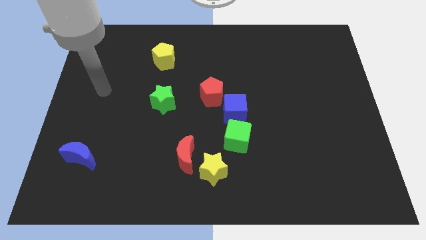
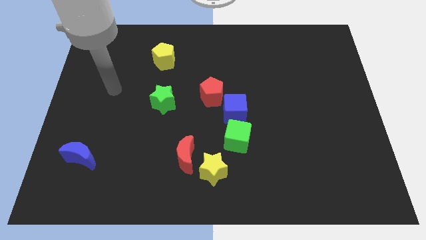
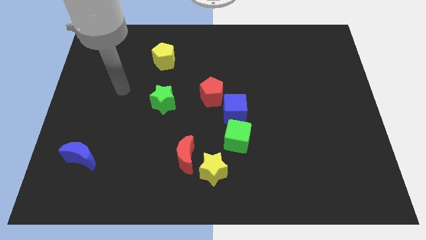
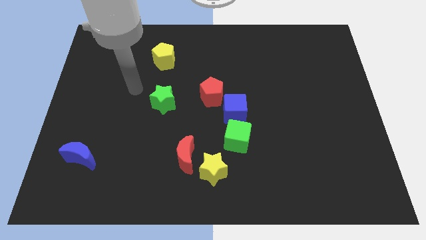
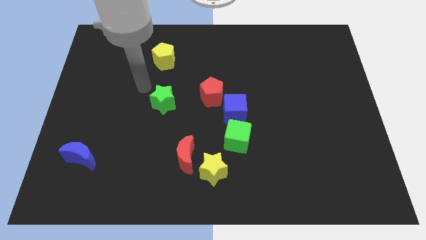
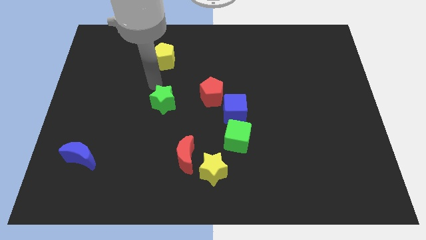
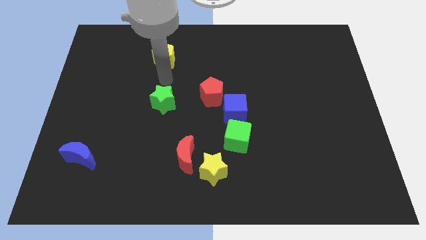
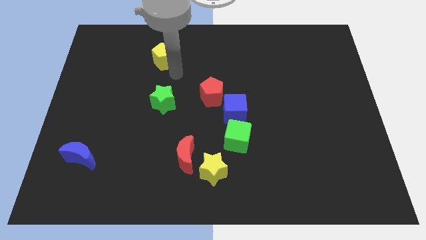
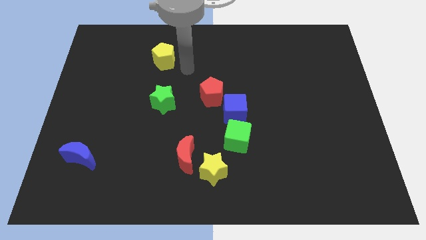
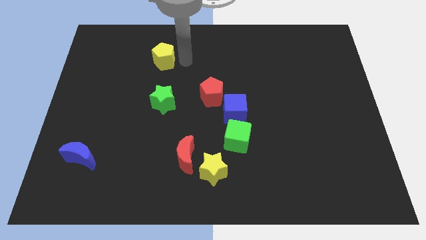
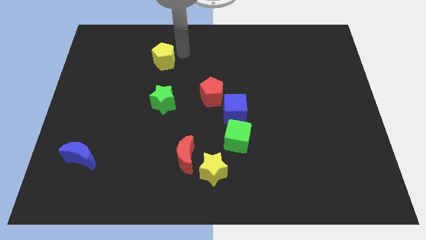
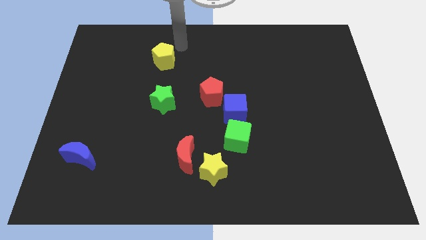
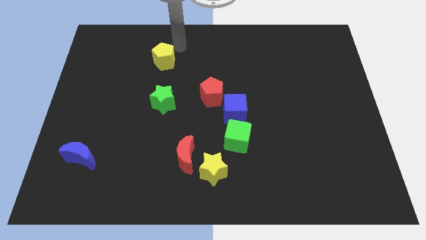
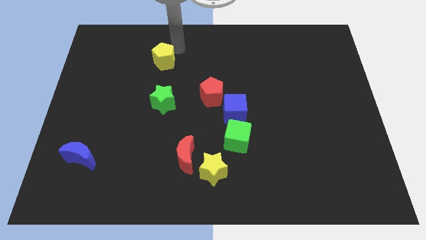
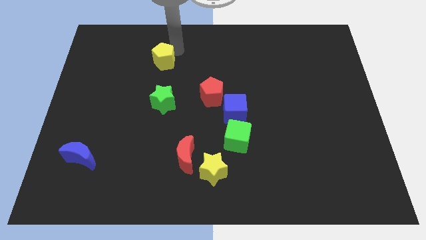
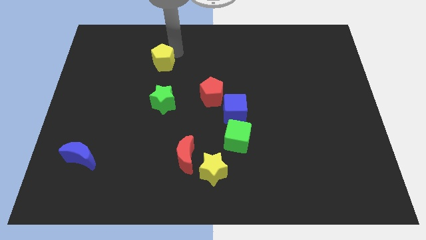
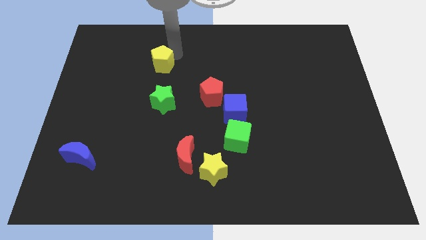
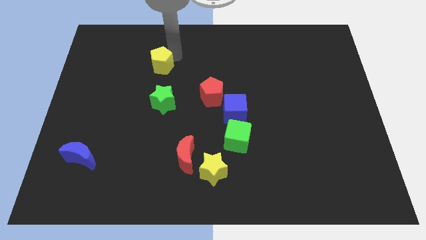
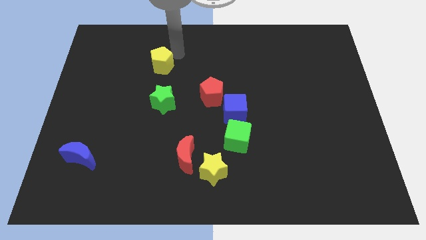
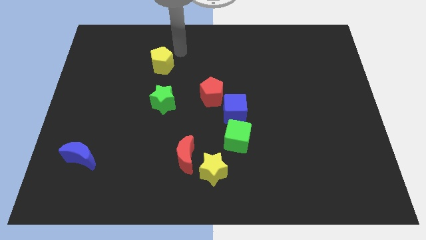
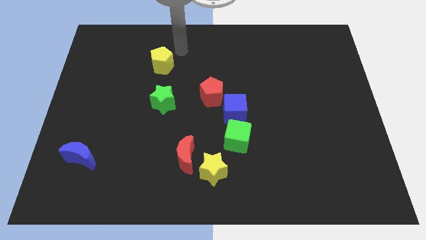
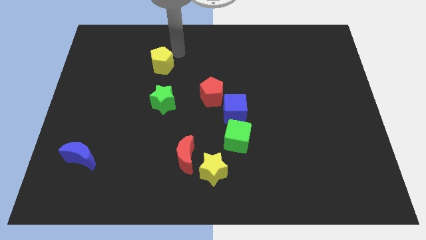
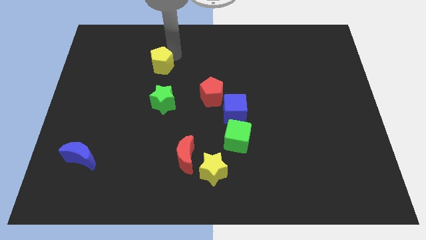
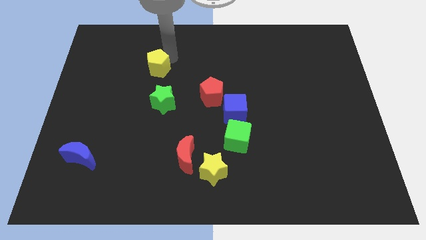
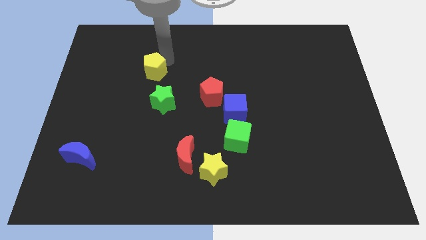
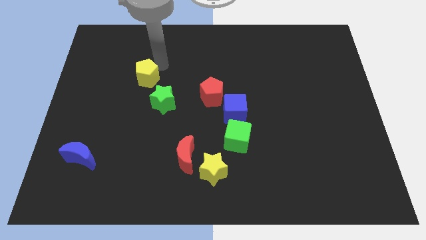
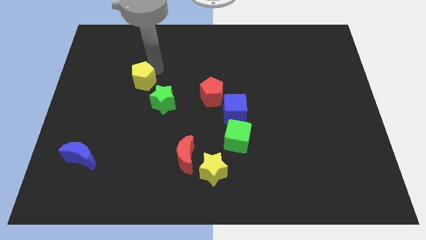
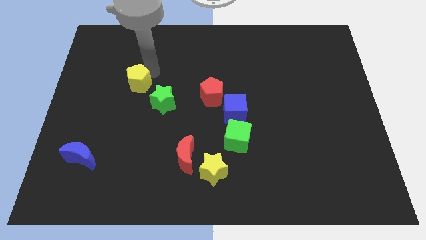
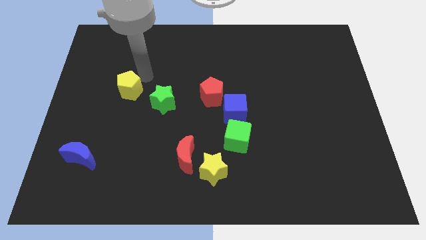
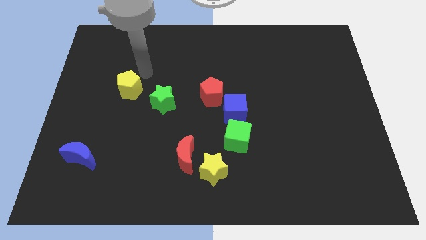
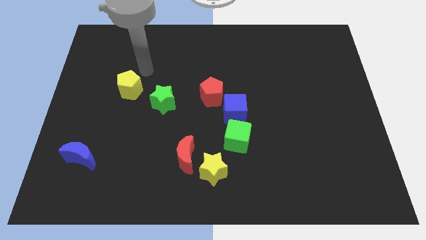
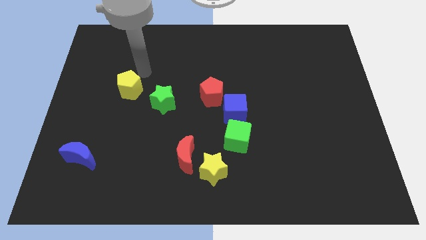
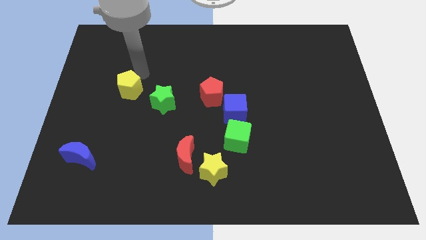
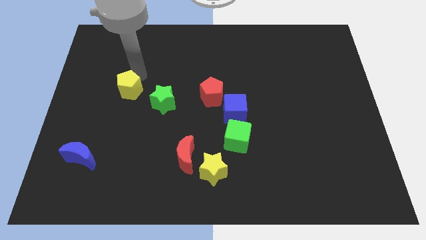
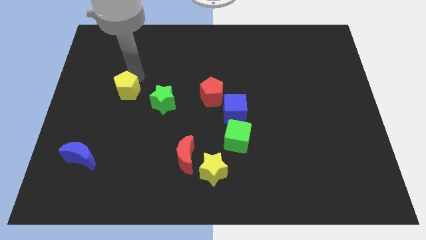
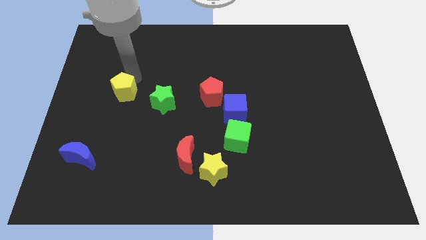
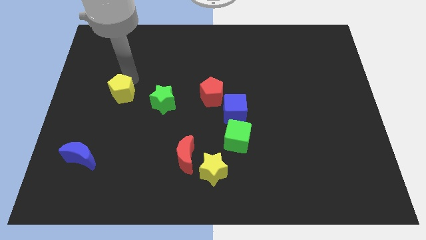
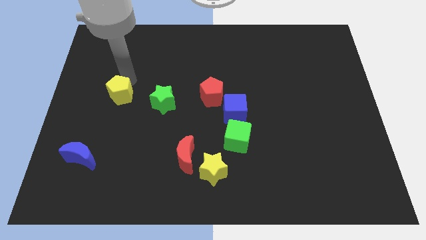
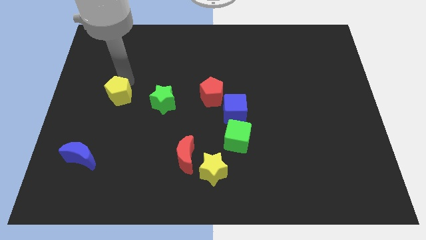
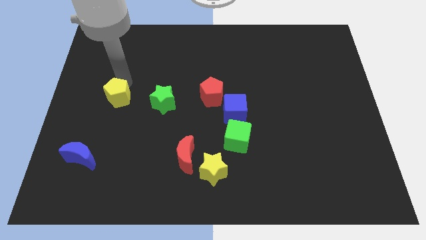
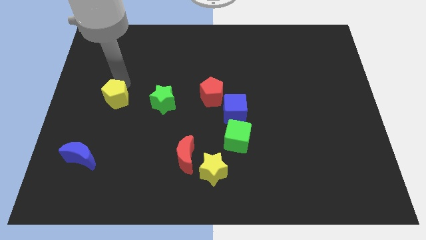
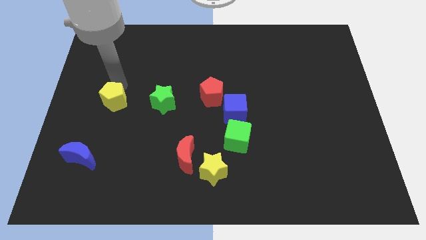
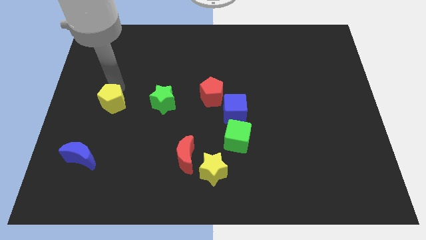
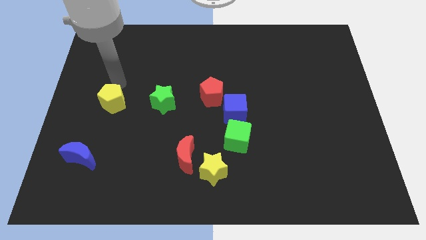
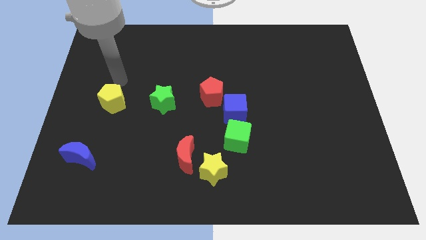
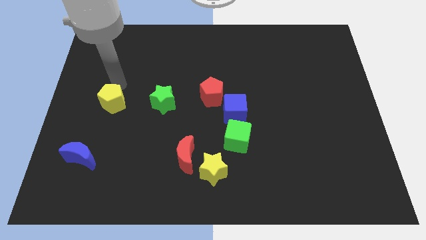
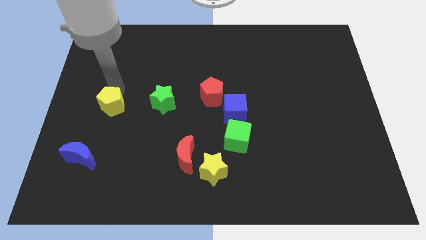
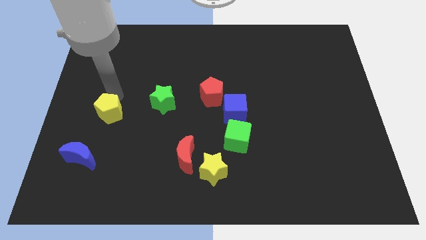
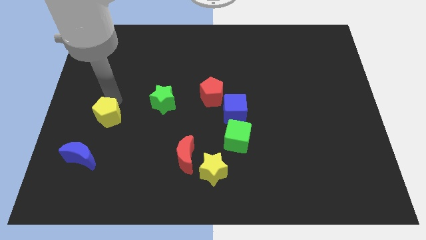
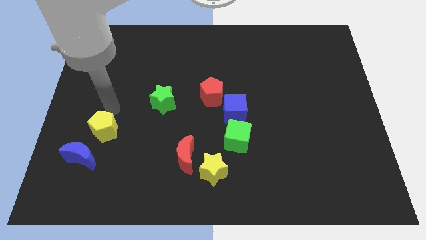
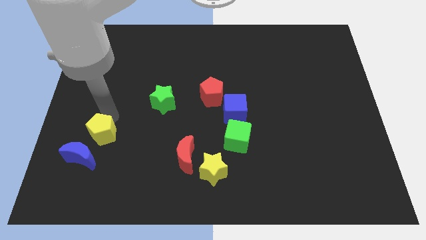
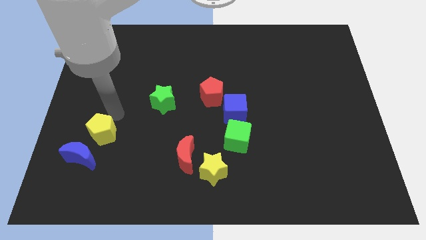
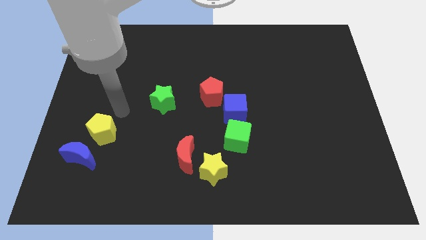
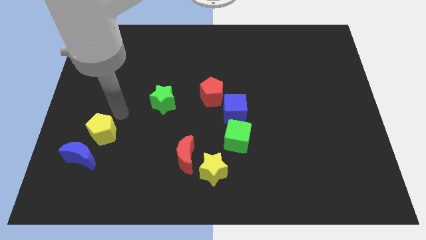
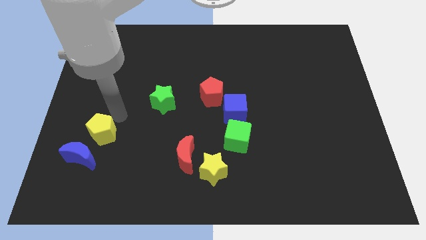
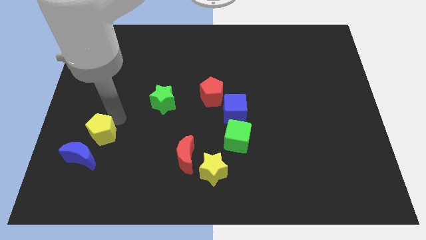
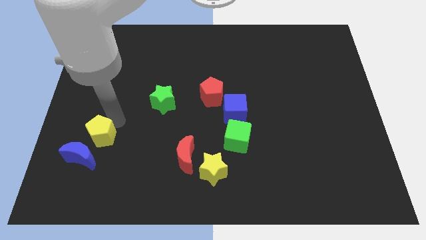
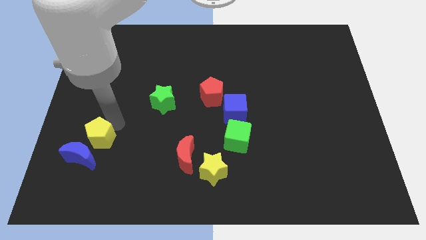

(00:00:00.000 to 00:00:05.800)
move the yellow pentagon to the blue moon

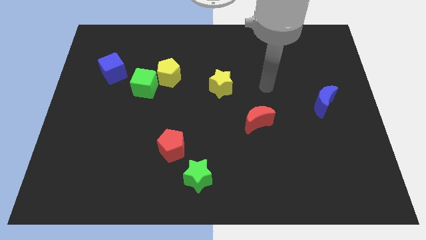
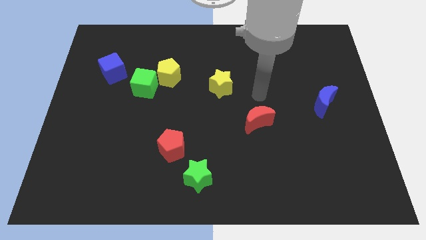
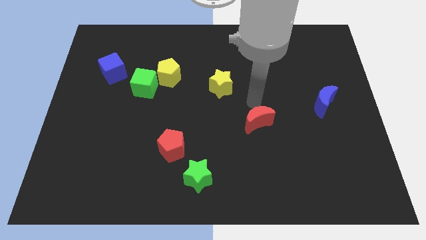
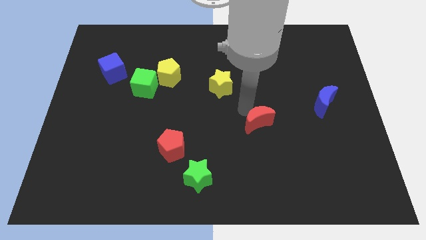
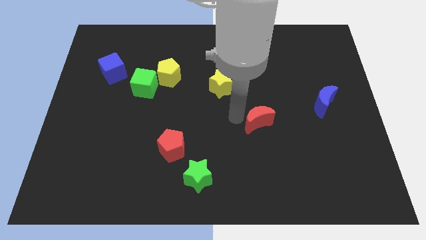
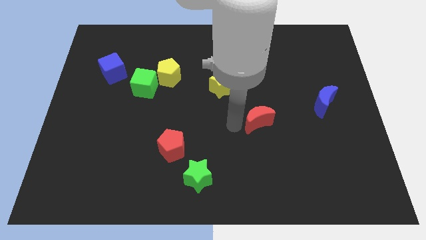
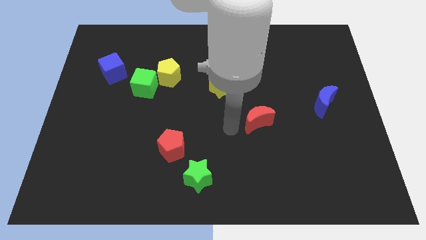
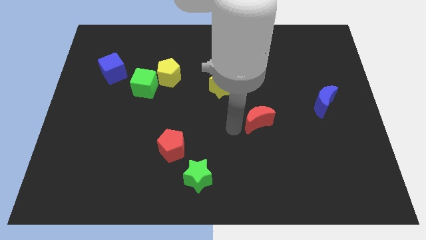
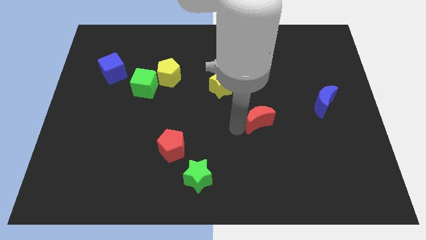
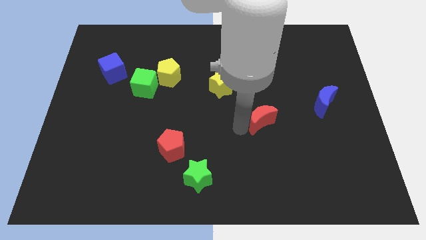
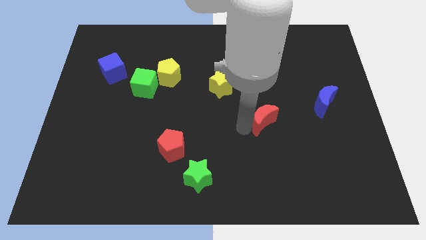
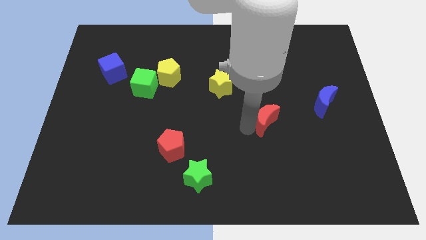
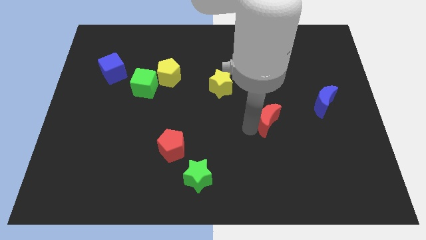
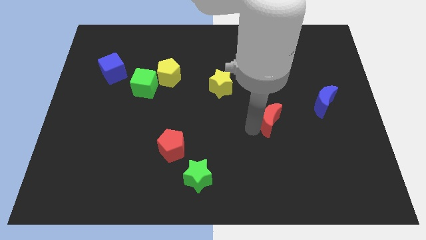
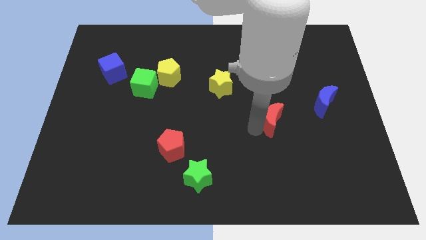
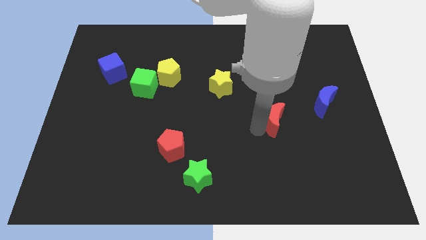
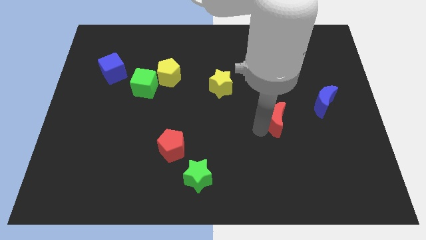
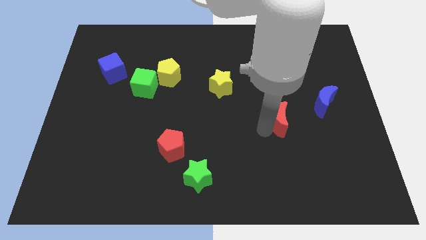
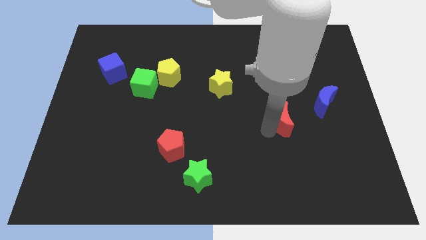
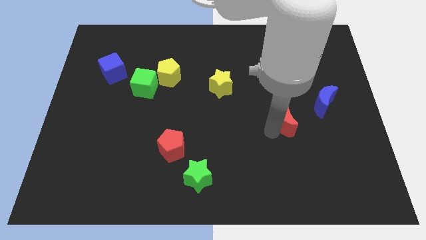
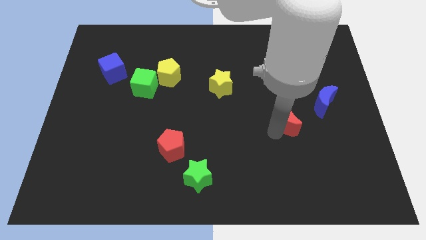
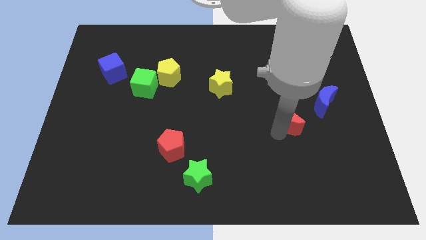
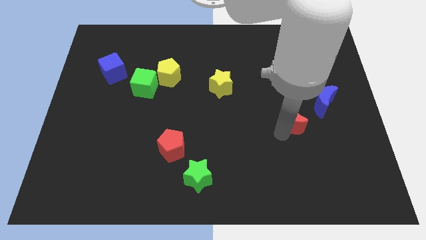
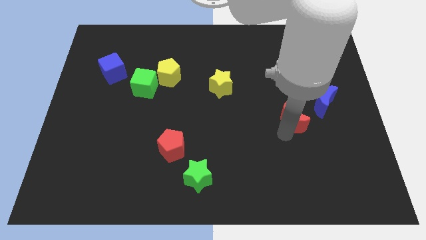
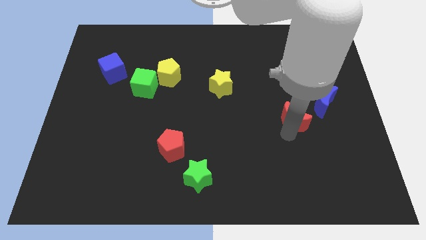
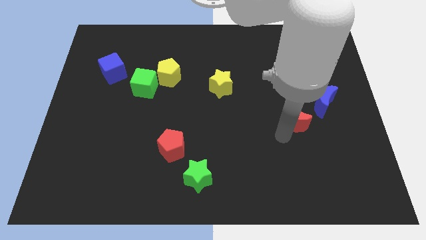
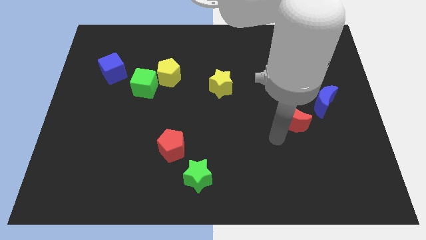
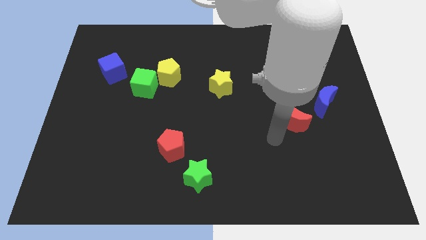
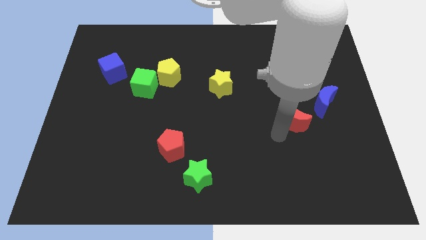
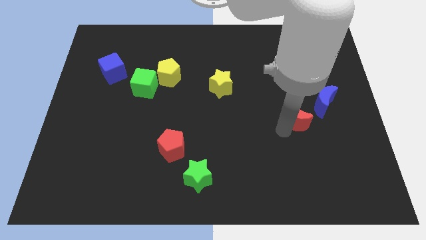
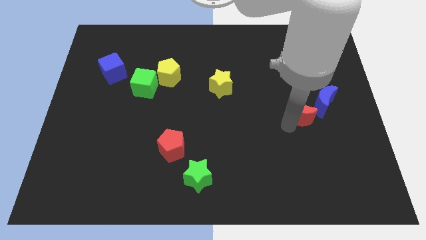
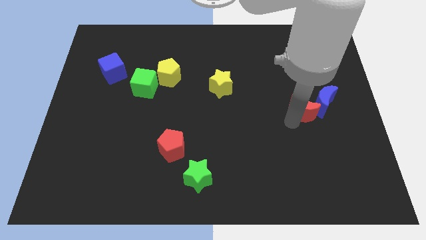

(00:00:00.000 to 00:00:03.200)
put the red moon to the blue moon
